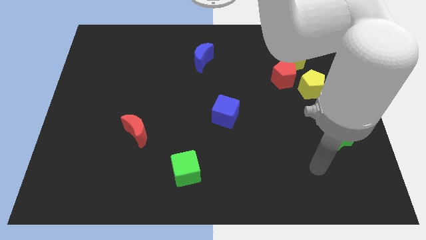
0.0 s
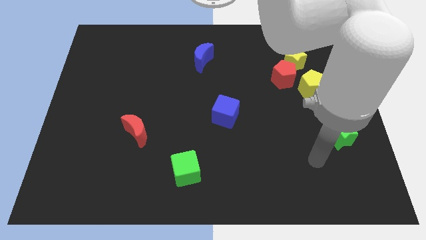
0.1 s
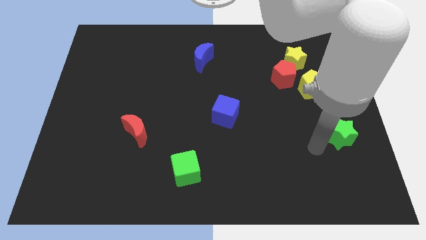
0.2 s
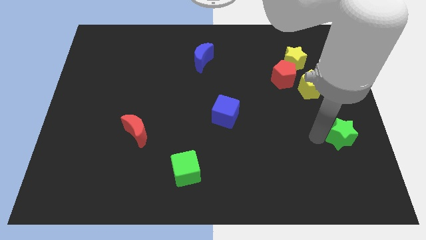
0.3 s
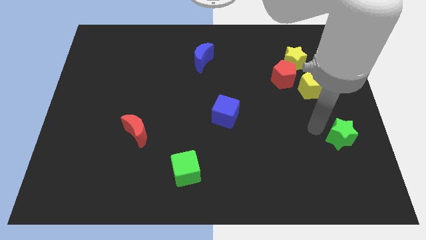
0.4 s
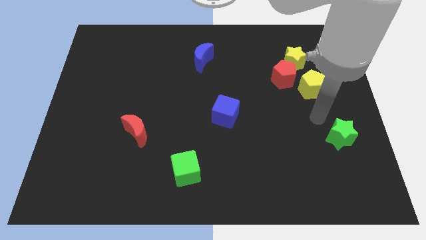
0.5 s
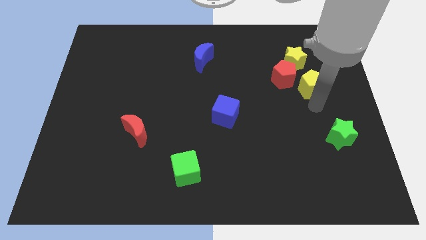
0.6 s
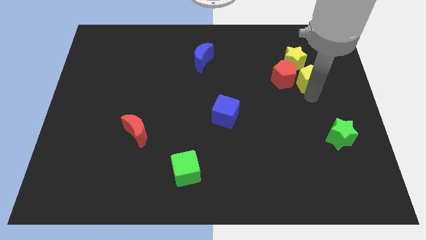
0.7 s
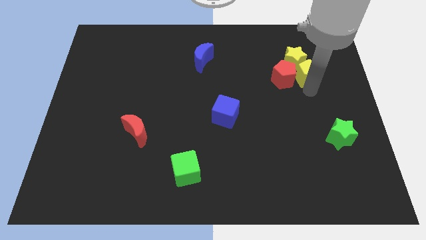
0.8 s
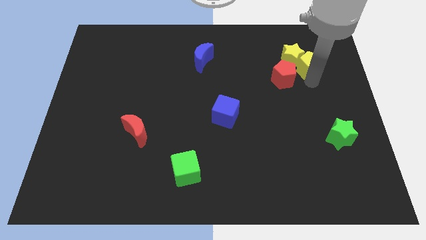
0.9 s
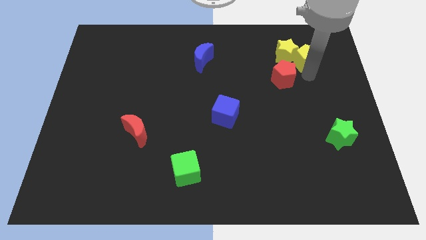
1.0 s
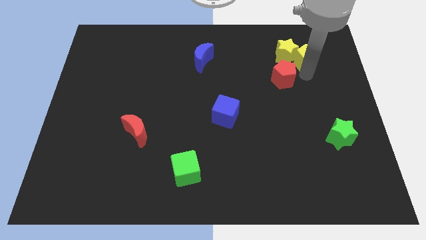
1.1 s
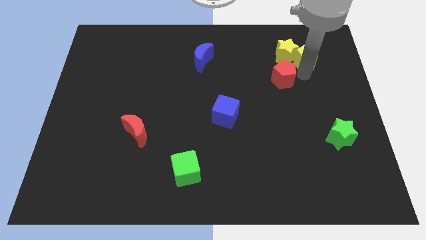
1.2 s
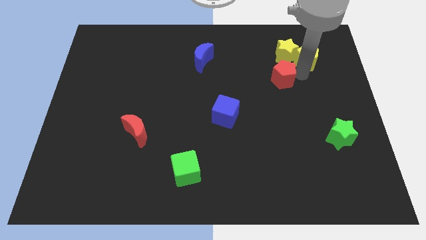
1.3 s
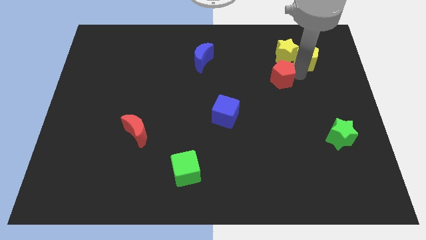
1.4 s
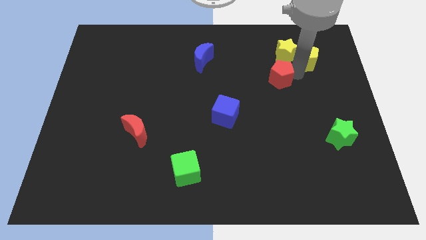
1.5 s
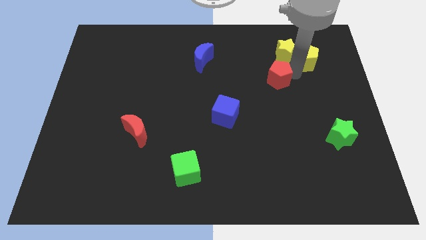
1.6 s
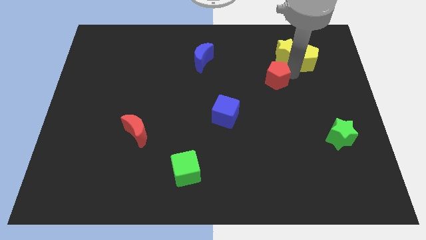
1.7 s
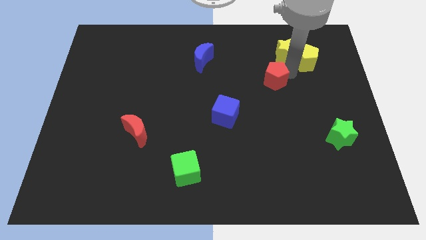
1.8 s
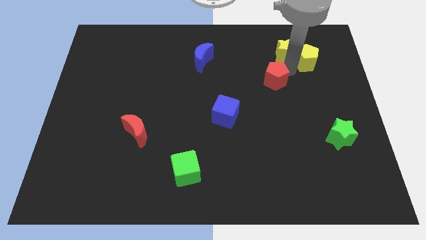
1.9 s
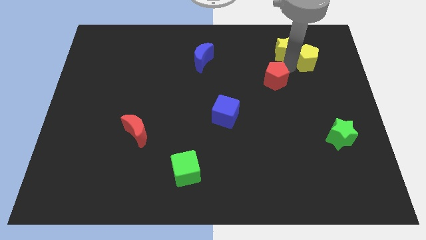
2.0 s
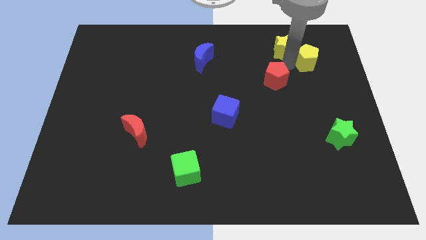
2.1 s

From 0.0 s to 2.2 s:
separate the red pentagon from the yellow star and yellow pentagon

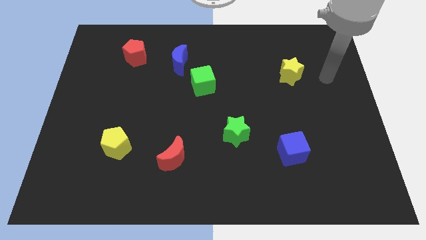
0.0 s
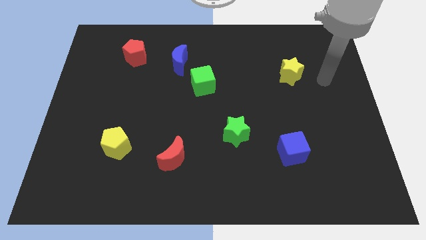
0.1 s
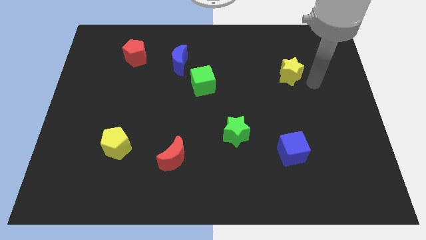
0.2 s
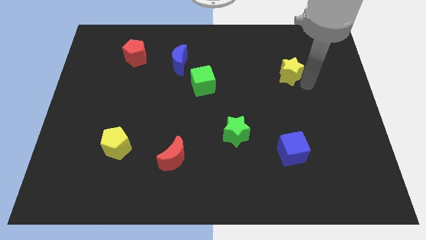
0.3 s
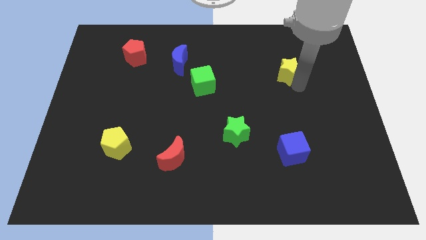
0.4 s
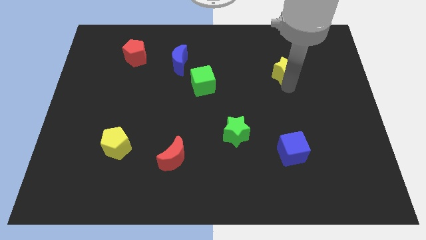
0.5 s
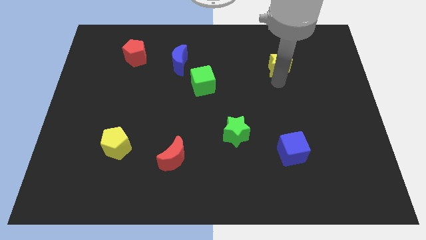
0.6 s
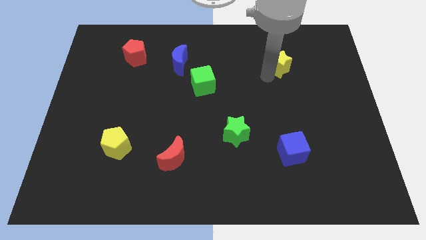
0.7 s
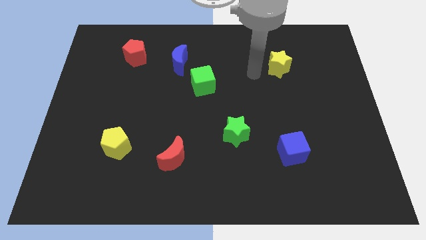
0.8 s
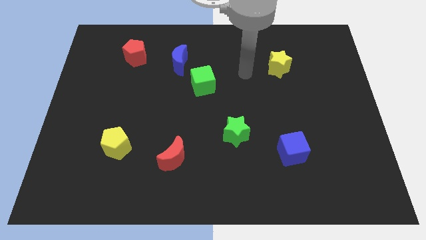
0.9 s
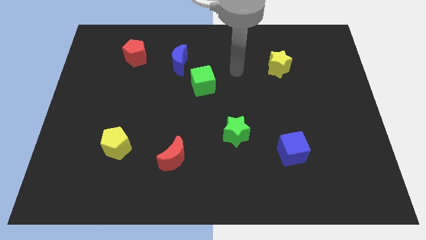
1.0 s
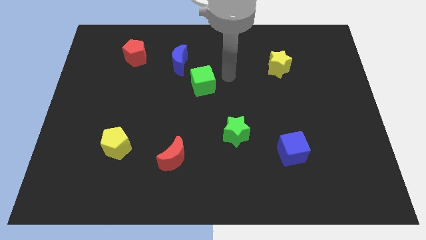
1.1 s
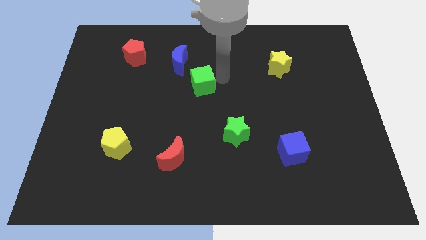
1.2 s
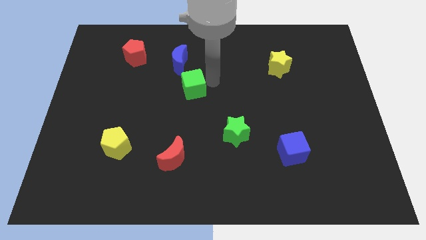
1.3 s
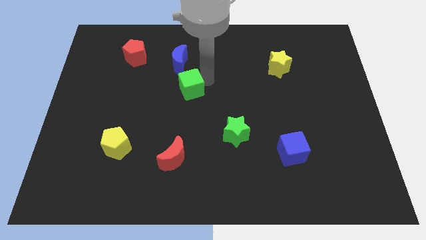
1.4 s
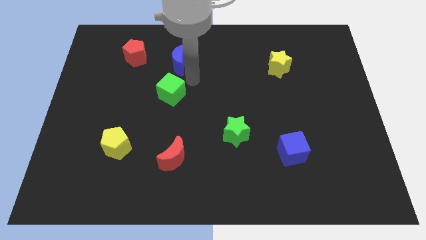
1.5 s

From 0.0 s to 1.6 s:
move the blue moon away from the green cube

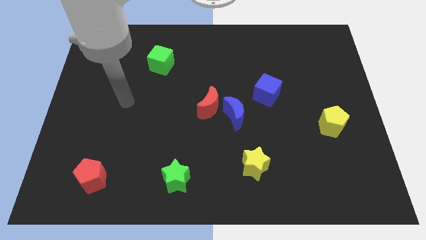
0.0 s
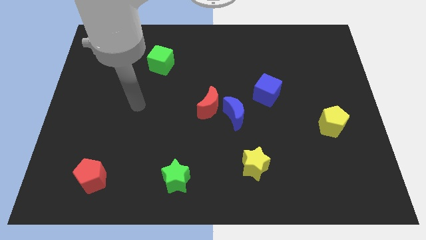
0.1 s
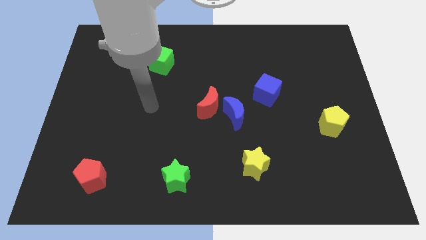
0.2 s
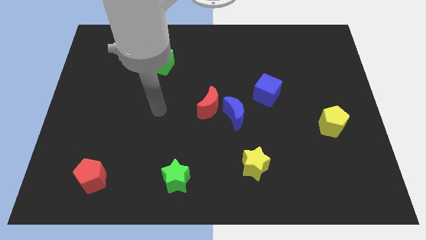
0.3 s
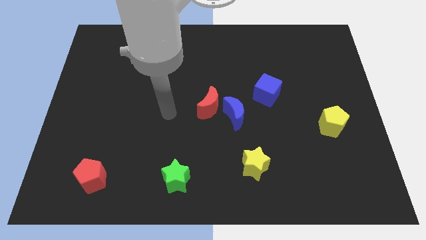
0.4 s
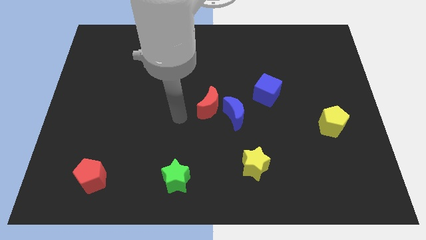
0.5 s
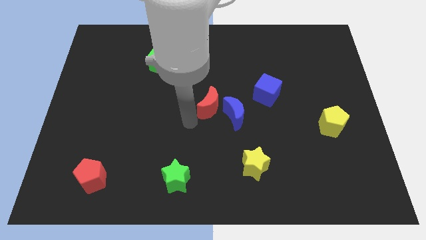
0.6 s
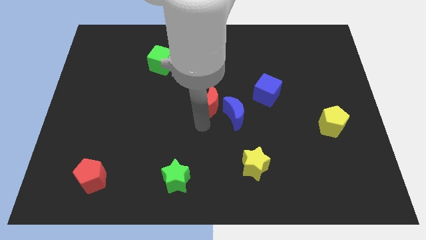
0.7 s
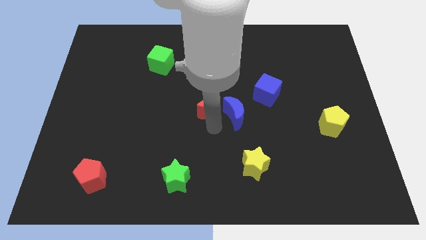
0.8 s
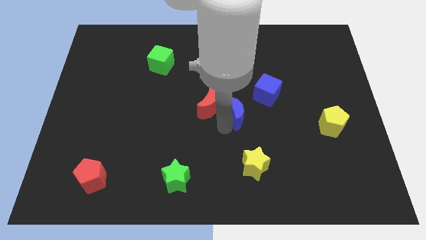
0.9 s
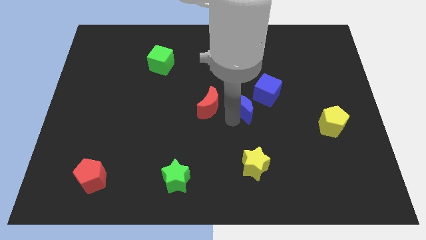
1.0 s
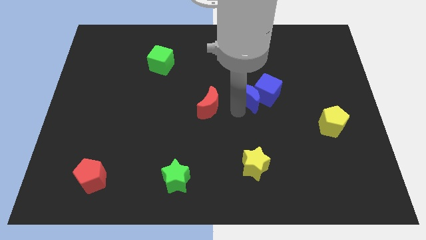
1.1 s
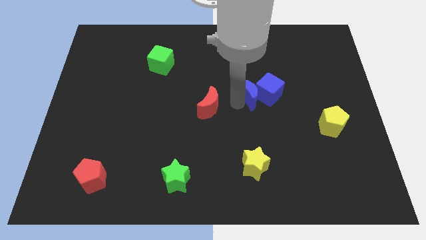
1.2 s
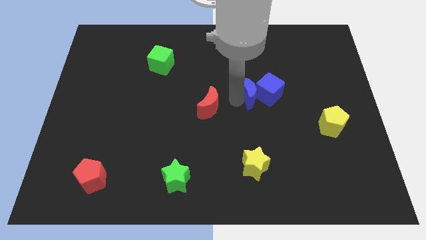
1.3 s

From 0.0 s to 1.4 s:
pull the red moon apart from the blue moon

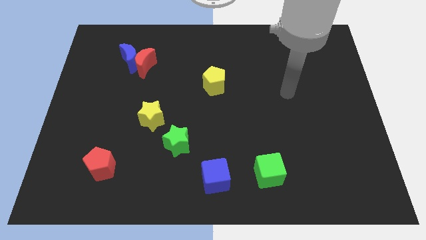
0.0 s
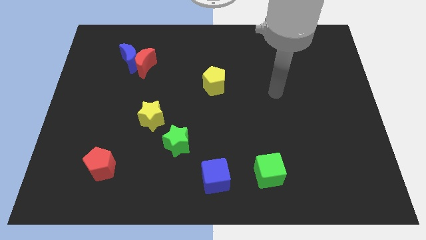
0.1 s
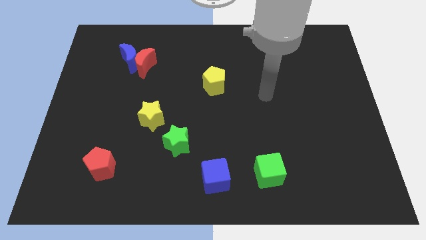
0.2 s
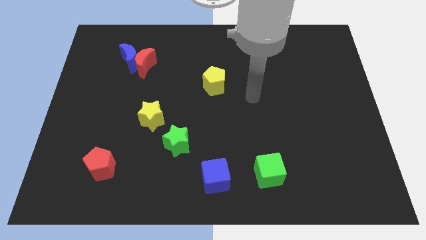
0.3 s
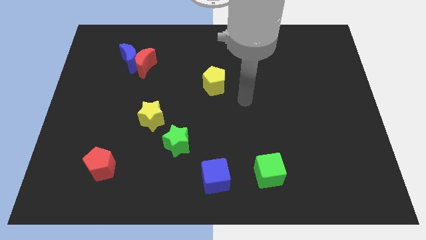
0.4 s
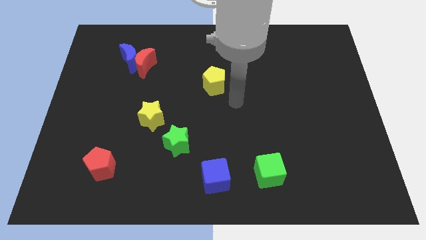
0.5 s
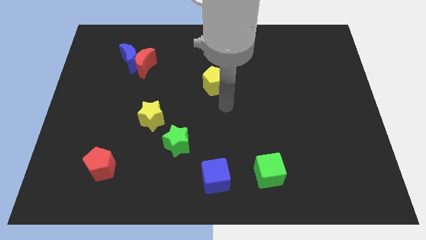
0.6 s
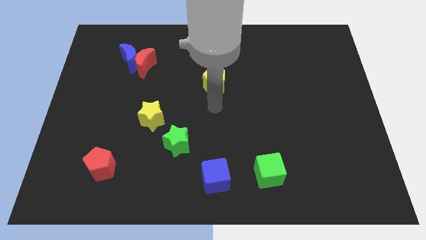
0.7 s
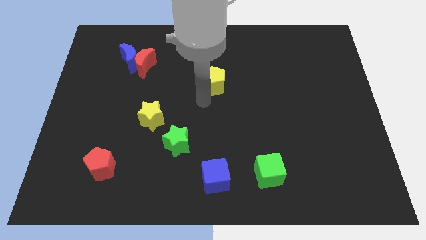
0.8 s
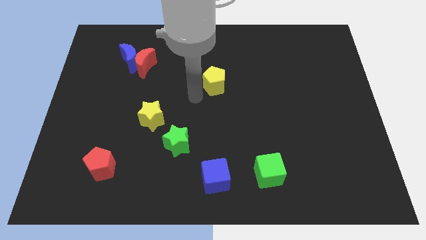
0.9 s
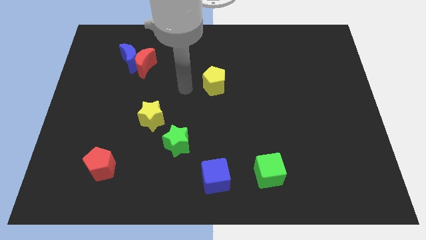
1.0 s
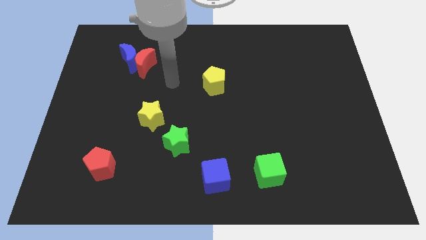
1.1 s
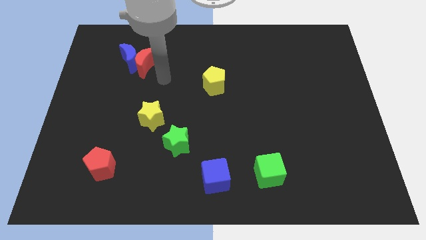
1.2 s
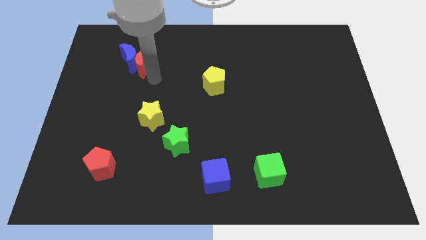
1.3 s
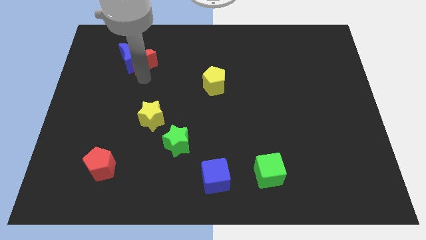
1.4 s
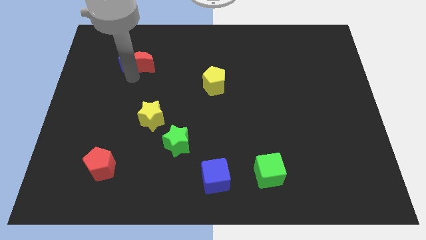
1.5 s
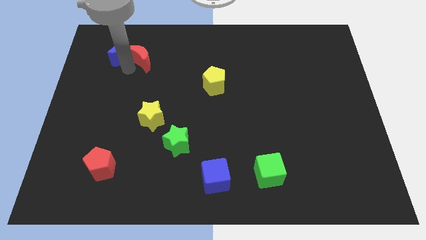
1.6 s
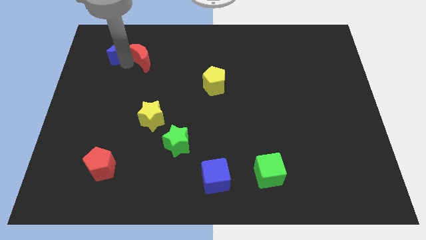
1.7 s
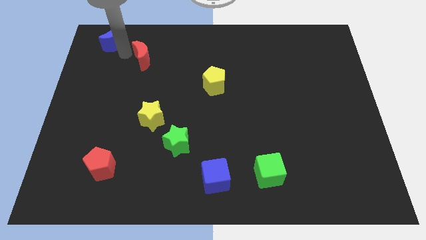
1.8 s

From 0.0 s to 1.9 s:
separate the red moon from the blue moon

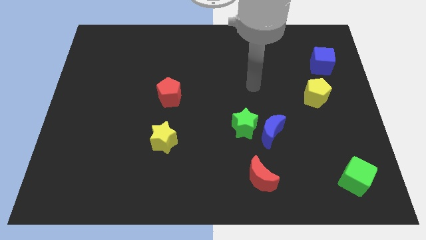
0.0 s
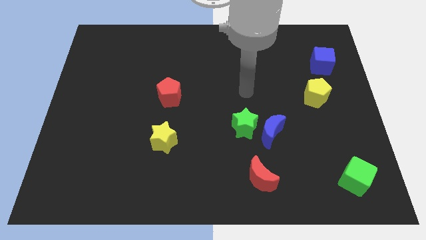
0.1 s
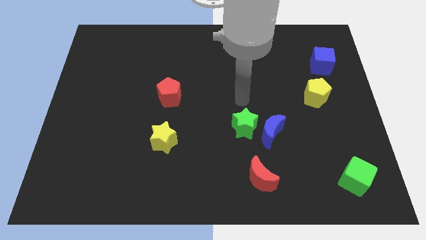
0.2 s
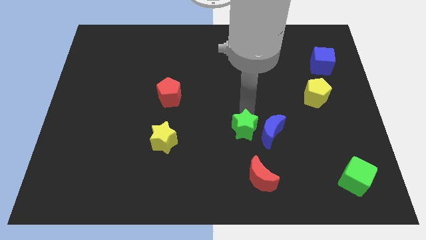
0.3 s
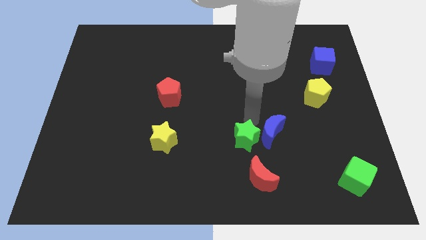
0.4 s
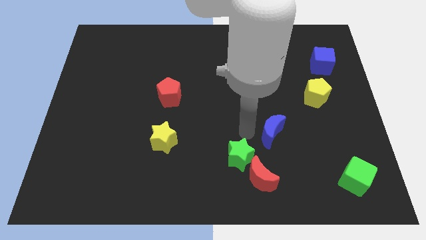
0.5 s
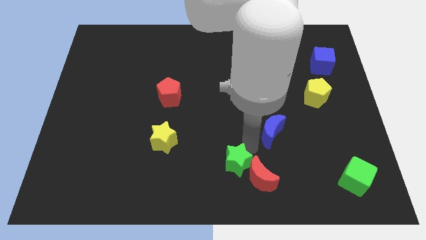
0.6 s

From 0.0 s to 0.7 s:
pull the blue moon apart from the green star

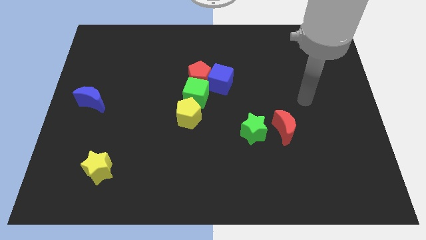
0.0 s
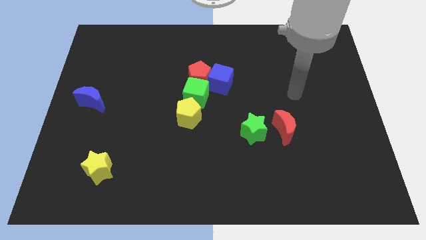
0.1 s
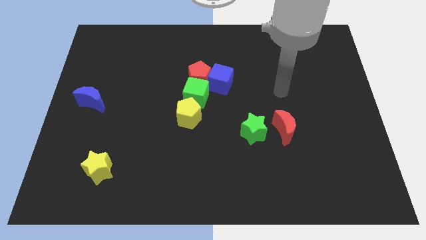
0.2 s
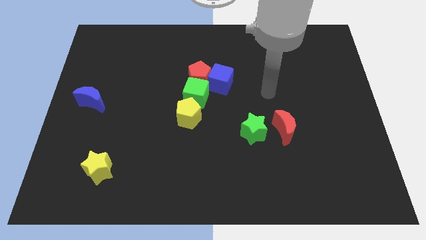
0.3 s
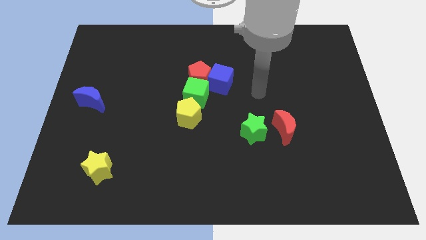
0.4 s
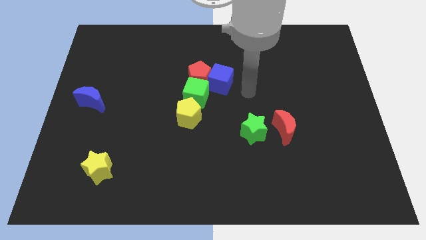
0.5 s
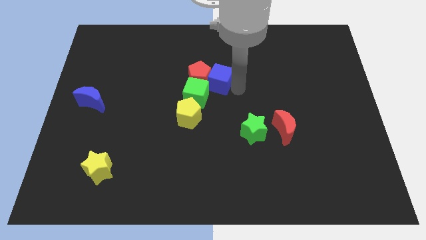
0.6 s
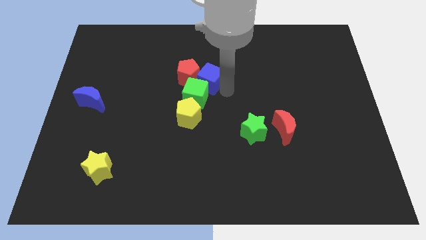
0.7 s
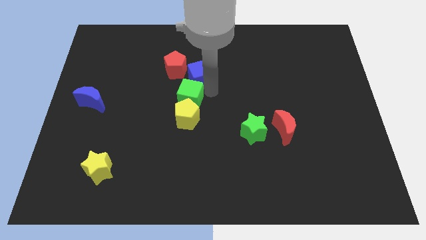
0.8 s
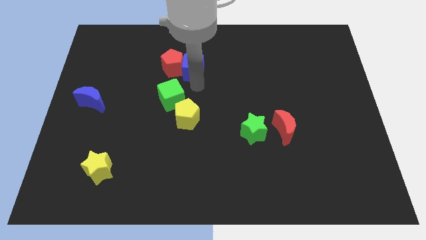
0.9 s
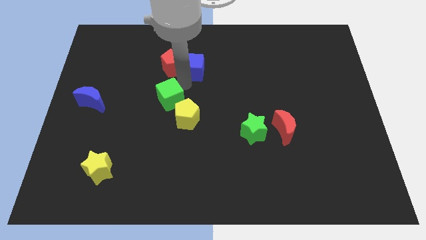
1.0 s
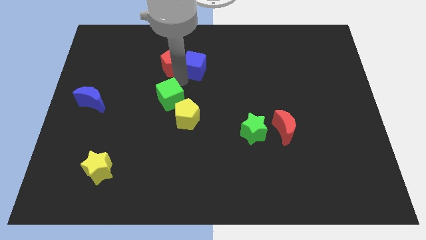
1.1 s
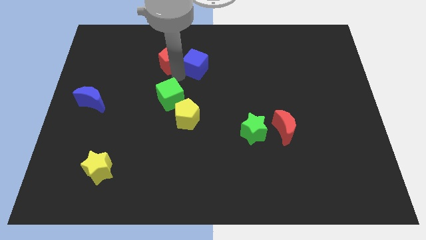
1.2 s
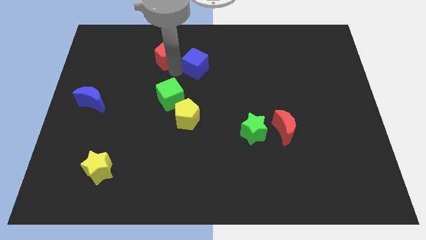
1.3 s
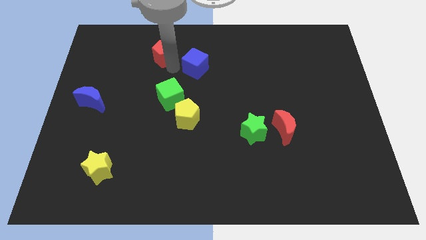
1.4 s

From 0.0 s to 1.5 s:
move the red pentagon away from the green cube and blue cube
